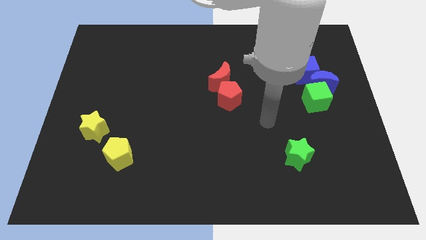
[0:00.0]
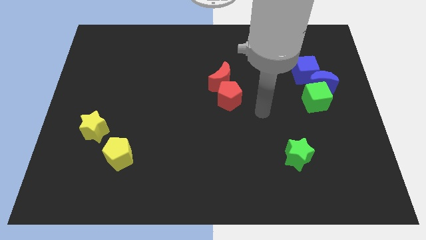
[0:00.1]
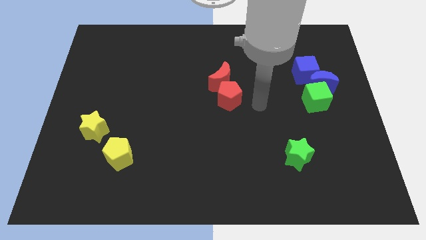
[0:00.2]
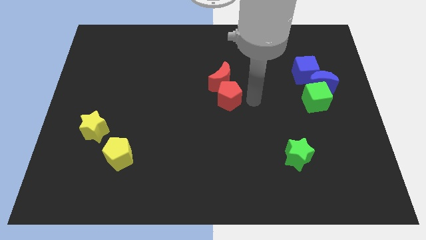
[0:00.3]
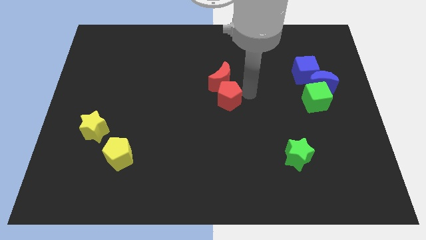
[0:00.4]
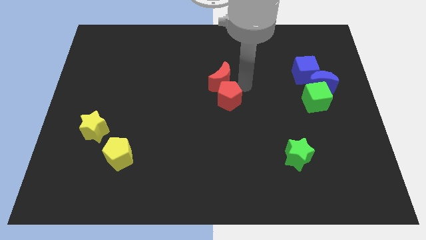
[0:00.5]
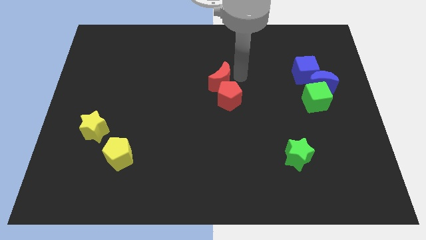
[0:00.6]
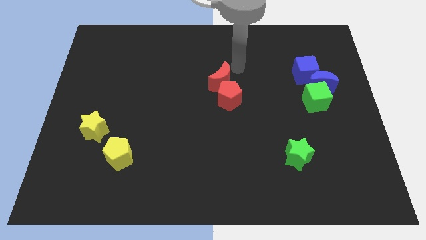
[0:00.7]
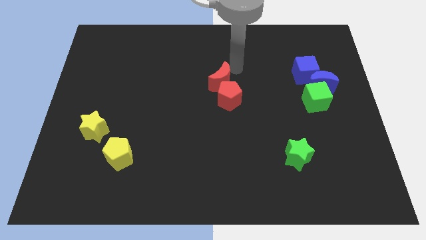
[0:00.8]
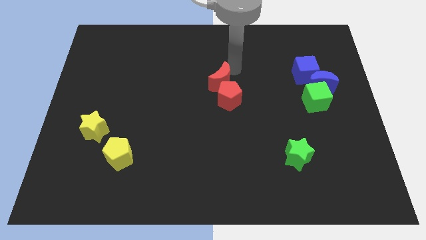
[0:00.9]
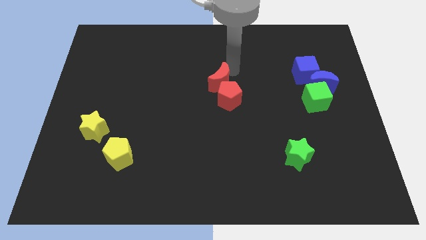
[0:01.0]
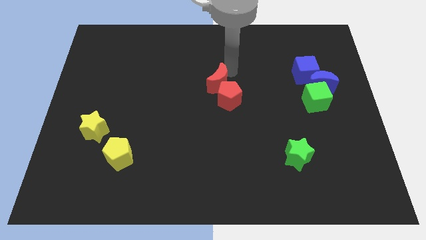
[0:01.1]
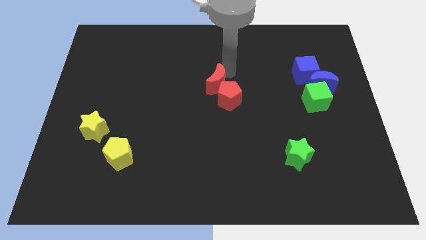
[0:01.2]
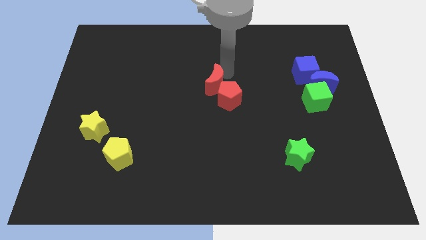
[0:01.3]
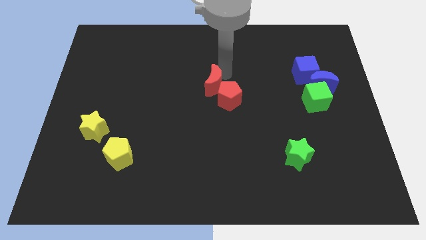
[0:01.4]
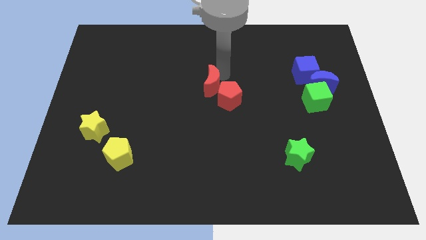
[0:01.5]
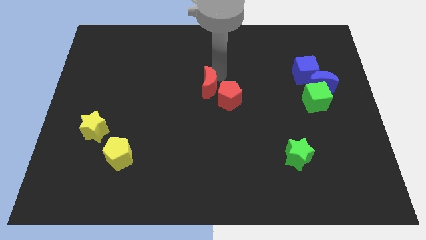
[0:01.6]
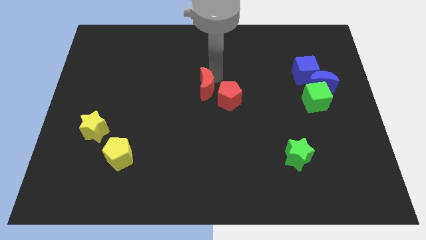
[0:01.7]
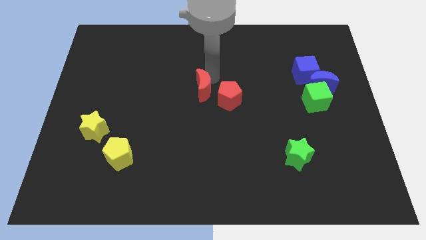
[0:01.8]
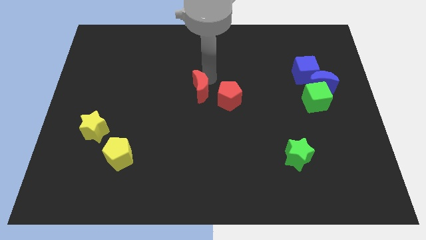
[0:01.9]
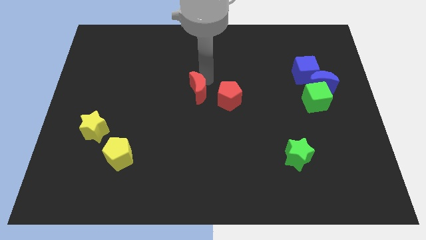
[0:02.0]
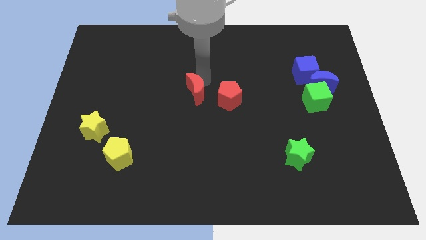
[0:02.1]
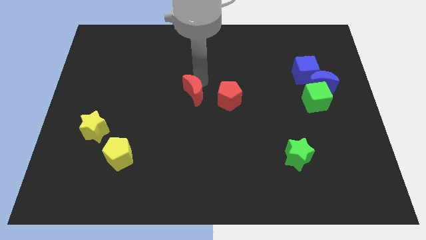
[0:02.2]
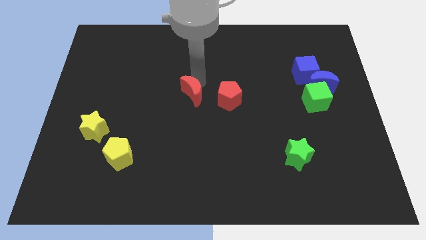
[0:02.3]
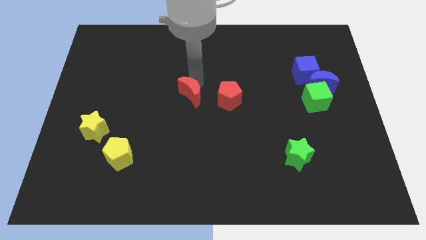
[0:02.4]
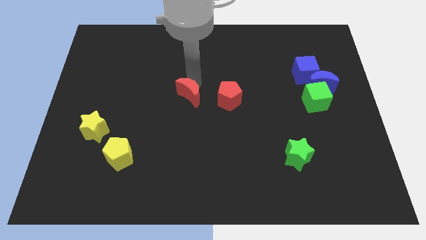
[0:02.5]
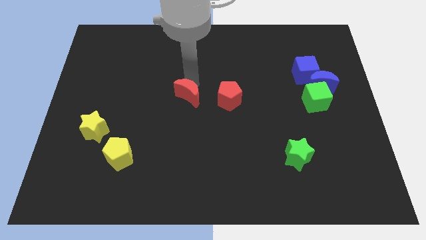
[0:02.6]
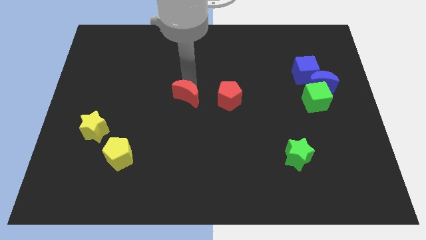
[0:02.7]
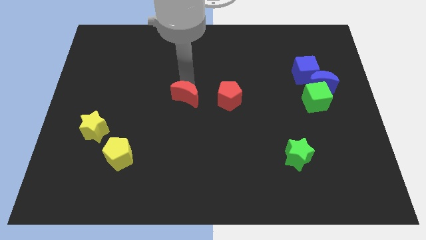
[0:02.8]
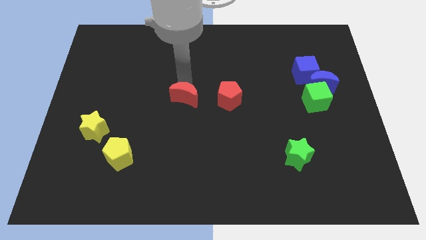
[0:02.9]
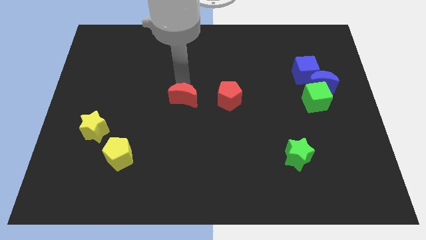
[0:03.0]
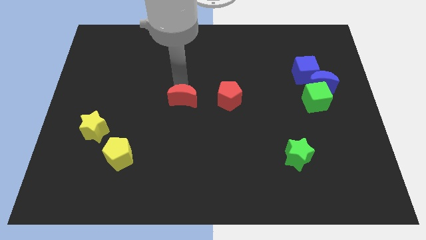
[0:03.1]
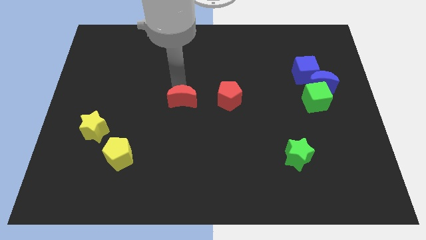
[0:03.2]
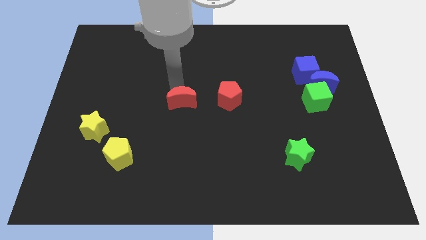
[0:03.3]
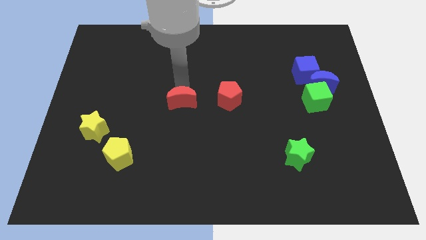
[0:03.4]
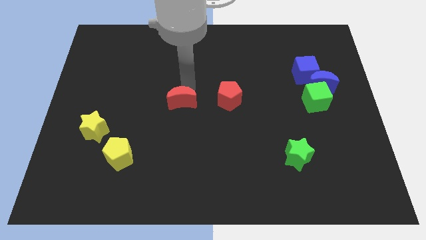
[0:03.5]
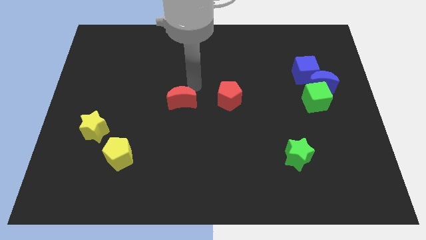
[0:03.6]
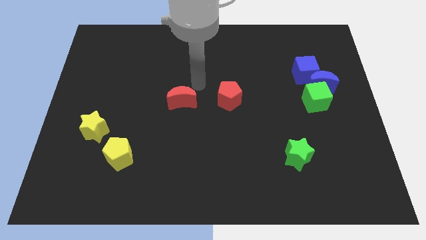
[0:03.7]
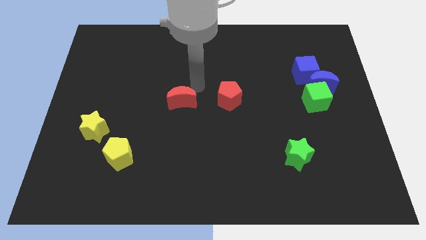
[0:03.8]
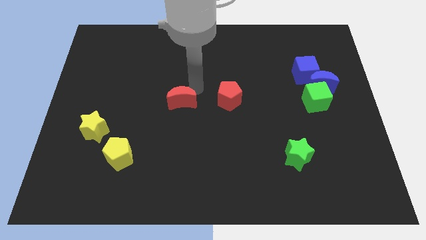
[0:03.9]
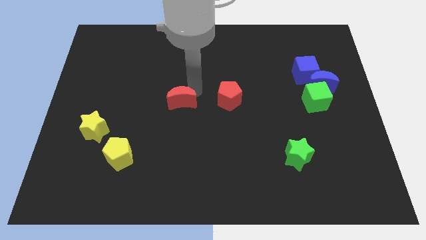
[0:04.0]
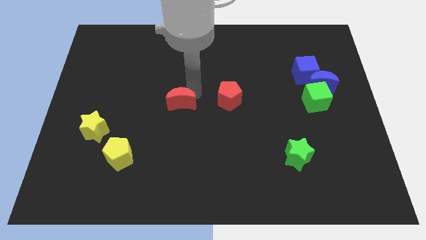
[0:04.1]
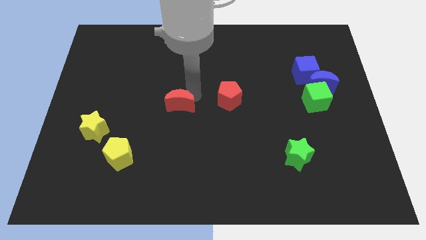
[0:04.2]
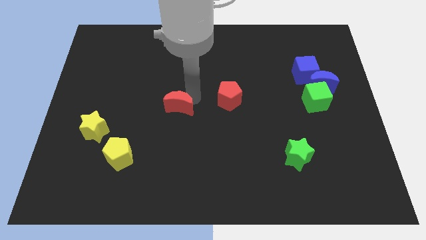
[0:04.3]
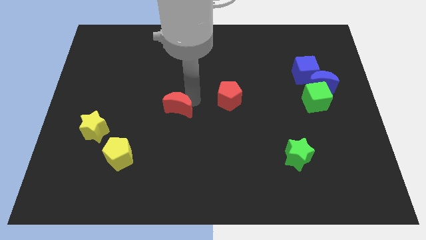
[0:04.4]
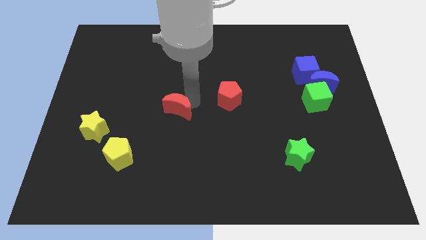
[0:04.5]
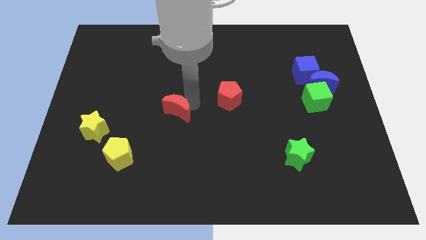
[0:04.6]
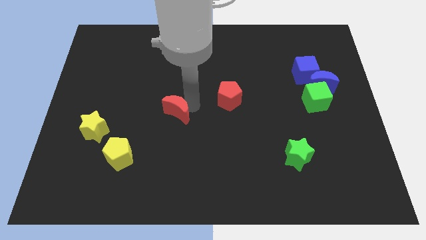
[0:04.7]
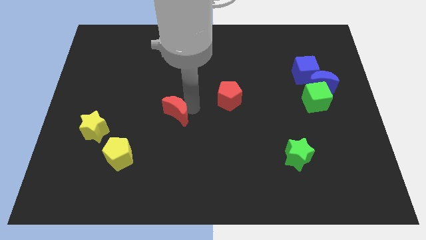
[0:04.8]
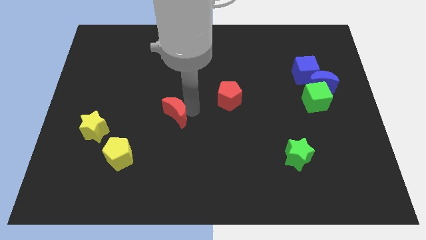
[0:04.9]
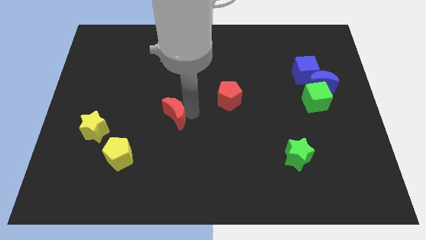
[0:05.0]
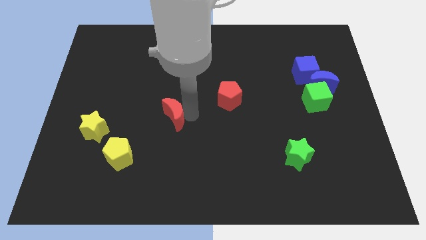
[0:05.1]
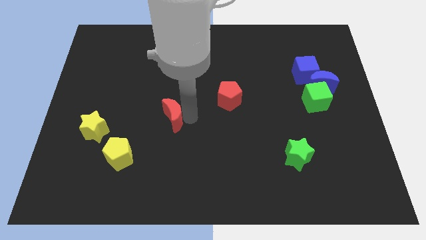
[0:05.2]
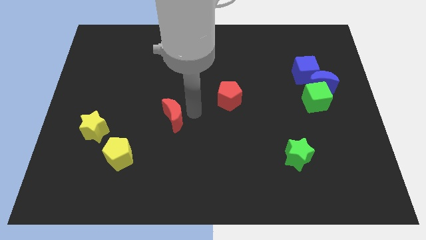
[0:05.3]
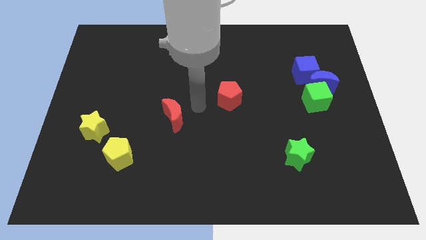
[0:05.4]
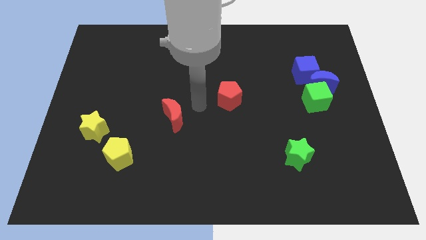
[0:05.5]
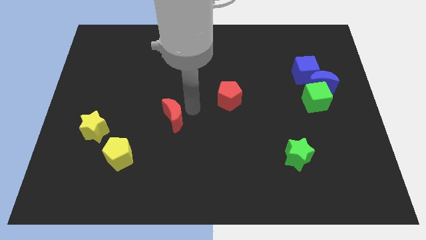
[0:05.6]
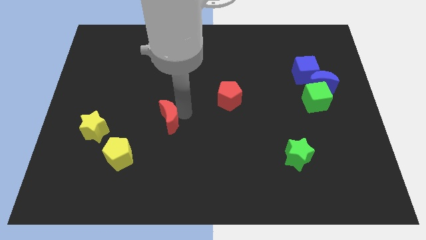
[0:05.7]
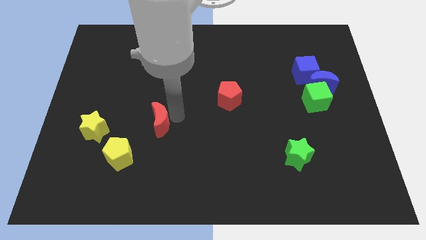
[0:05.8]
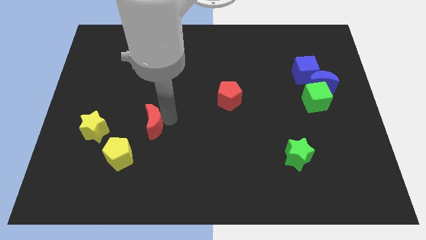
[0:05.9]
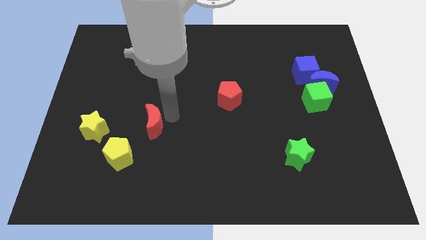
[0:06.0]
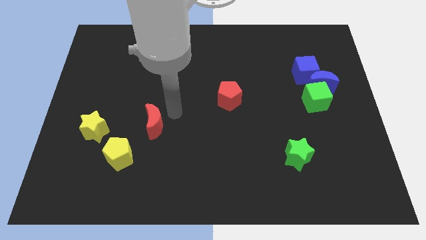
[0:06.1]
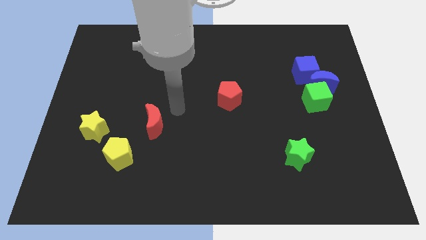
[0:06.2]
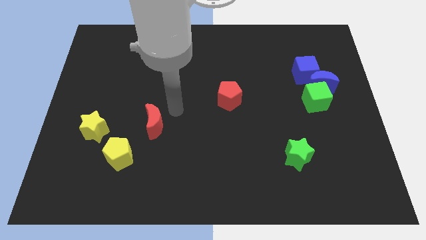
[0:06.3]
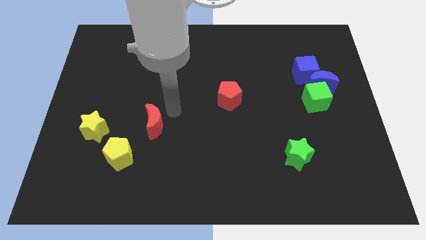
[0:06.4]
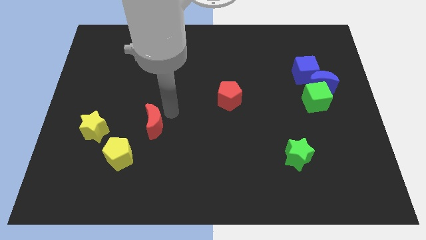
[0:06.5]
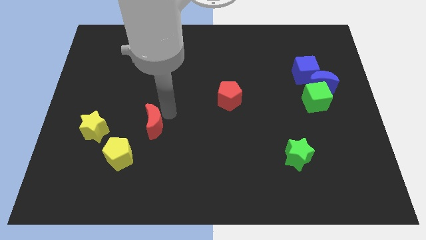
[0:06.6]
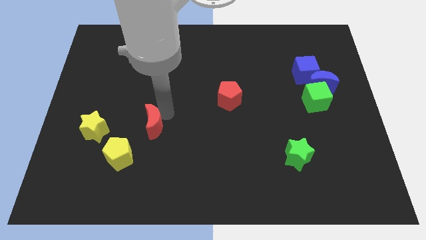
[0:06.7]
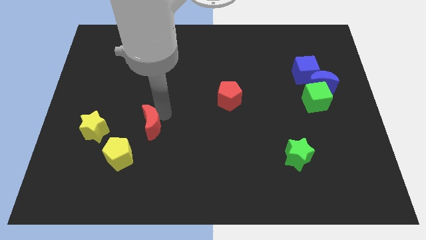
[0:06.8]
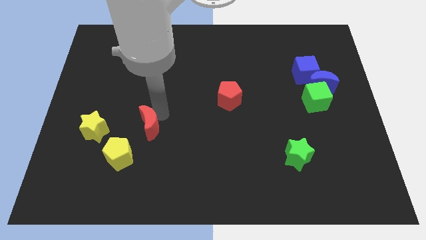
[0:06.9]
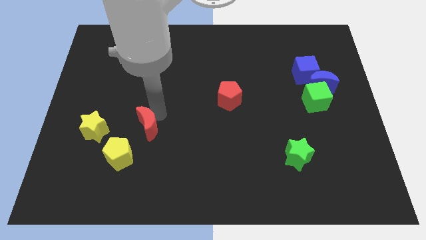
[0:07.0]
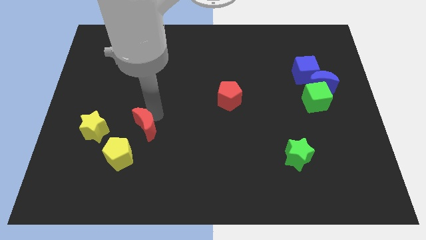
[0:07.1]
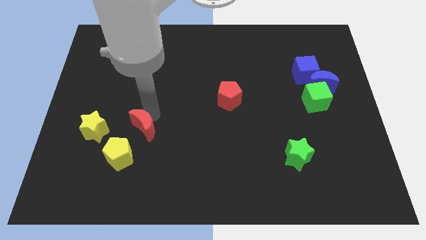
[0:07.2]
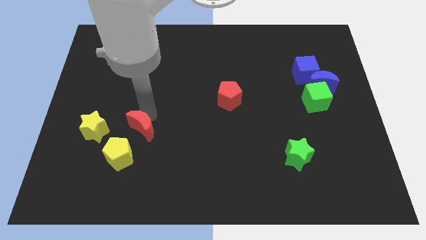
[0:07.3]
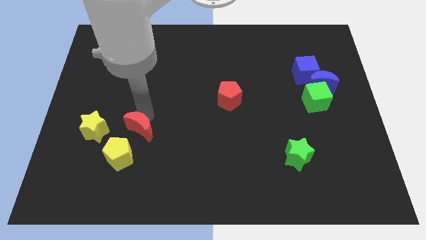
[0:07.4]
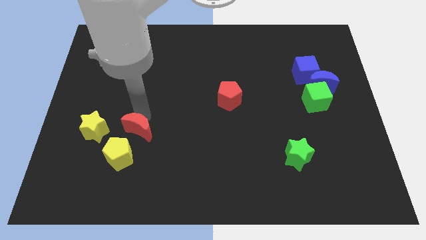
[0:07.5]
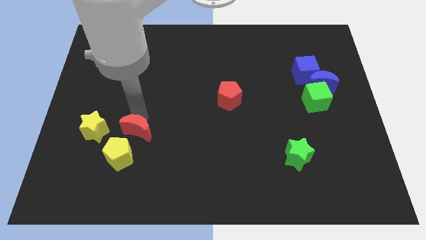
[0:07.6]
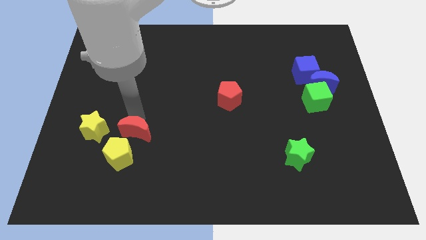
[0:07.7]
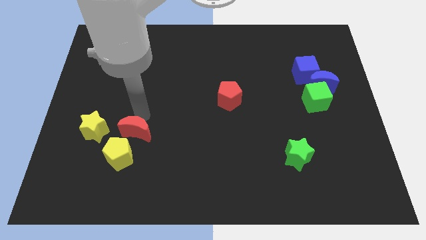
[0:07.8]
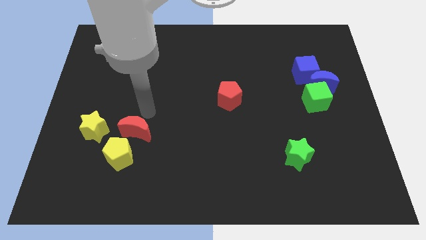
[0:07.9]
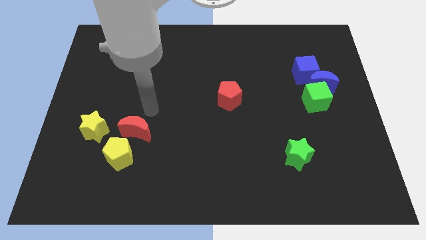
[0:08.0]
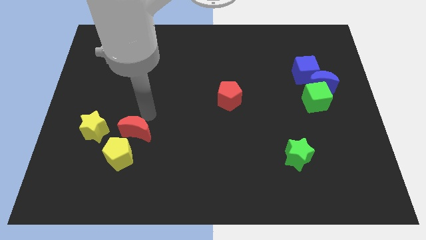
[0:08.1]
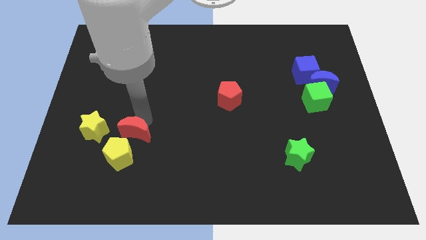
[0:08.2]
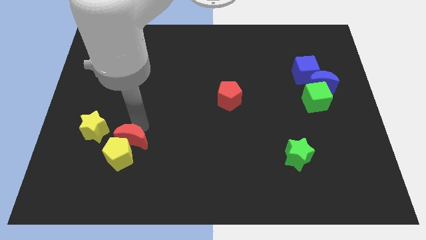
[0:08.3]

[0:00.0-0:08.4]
put the red moon towards the yellow pentagon
